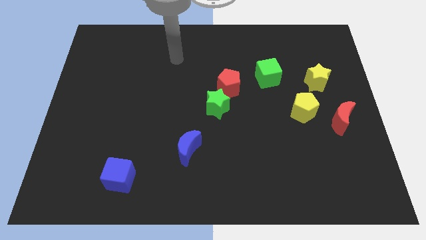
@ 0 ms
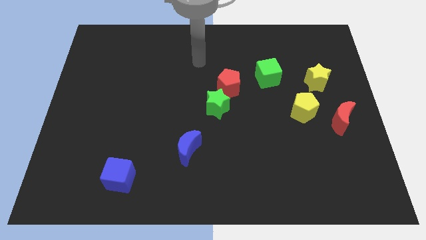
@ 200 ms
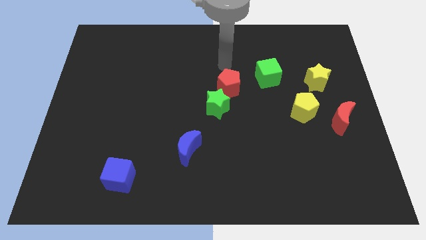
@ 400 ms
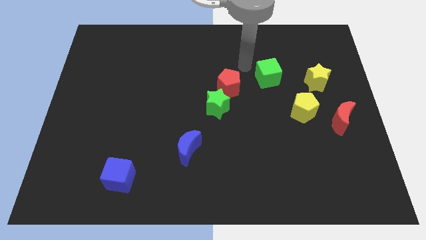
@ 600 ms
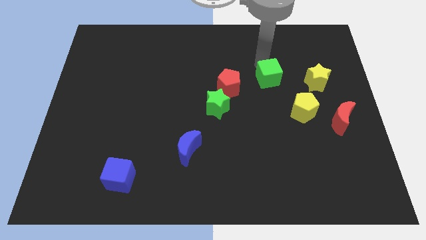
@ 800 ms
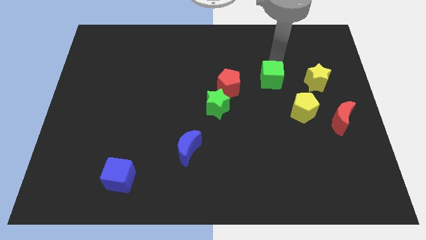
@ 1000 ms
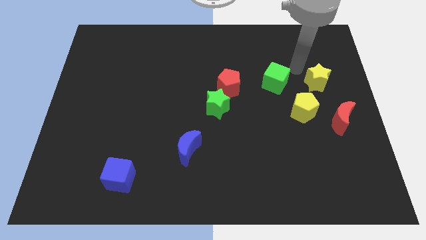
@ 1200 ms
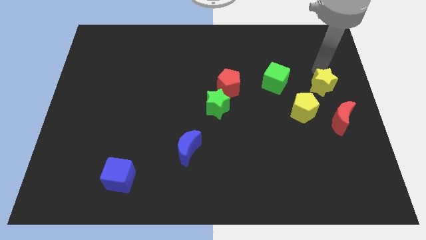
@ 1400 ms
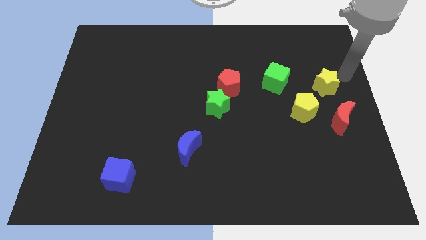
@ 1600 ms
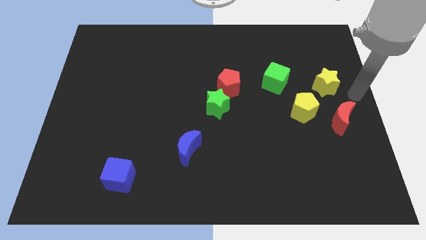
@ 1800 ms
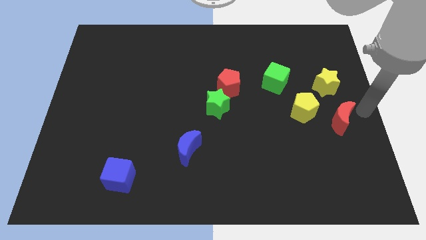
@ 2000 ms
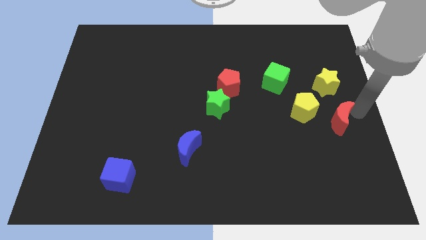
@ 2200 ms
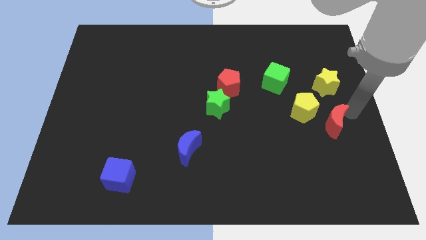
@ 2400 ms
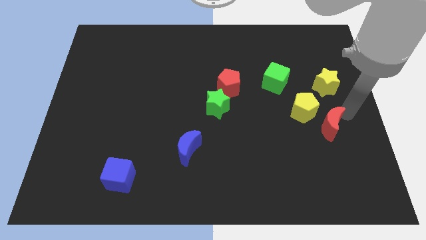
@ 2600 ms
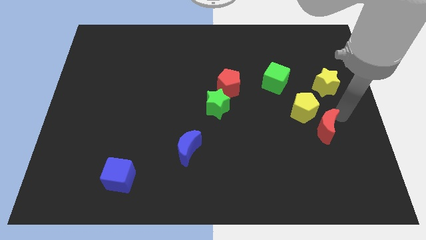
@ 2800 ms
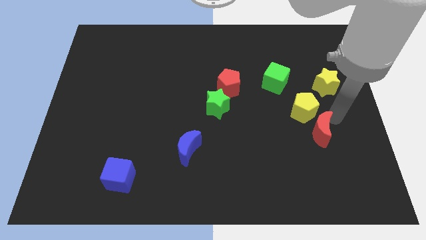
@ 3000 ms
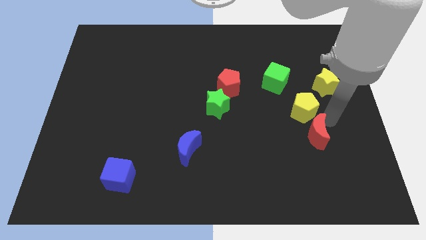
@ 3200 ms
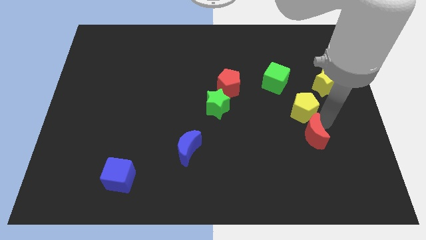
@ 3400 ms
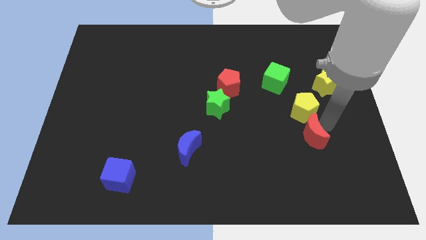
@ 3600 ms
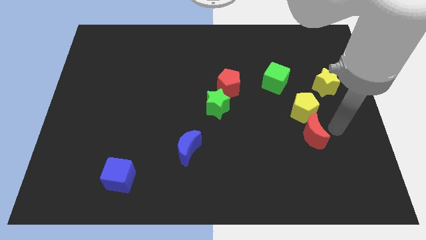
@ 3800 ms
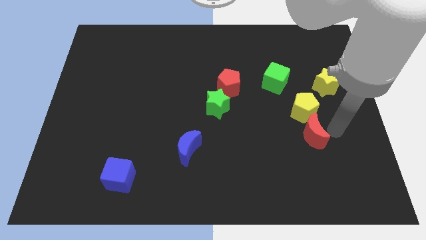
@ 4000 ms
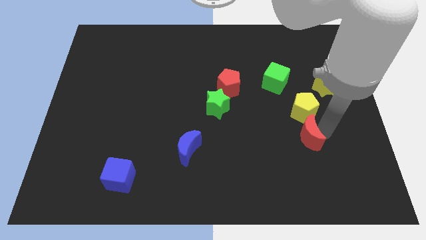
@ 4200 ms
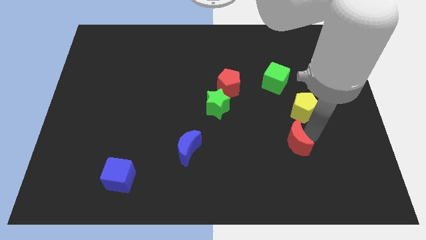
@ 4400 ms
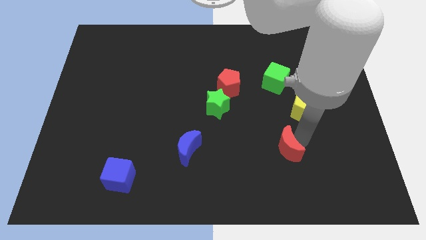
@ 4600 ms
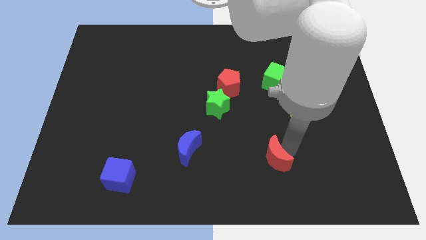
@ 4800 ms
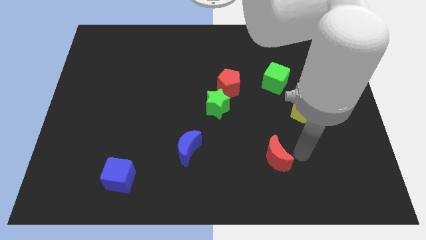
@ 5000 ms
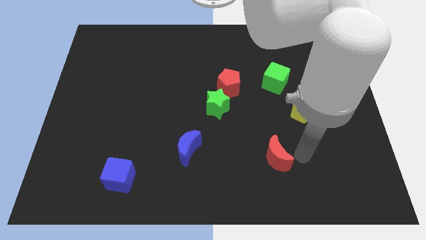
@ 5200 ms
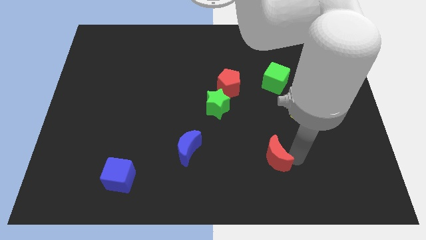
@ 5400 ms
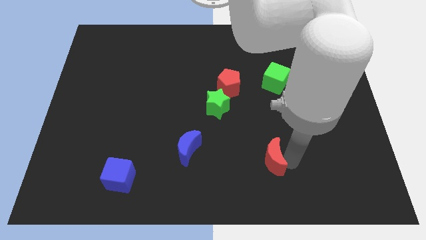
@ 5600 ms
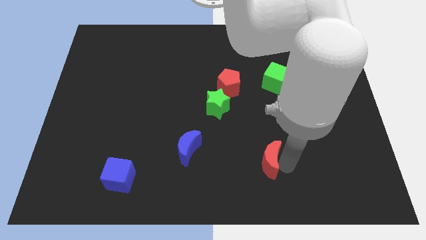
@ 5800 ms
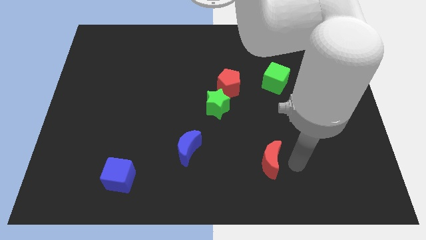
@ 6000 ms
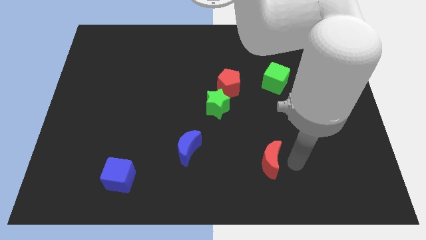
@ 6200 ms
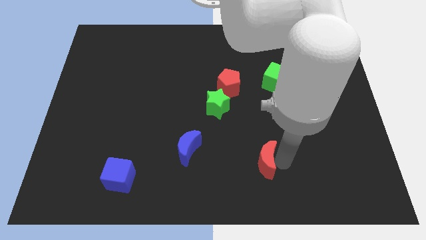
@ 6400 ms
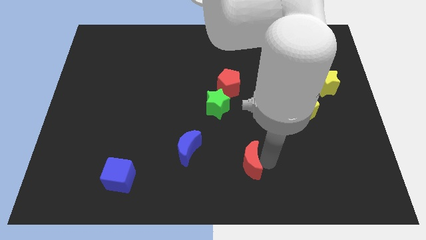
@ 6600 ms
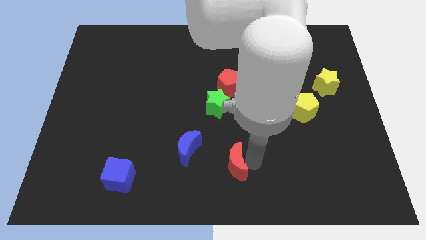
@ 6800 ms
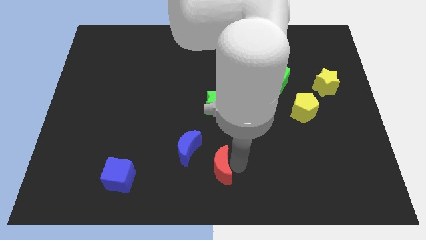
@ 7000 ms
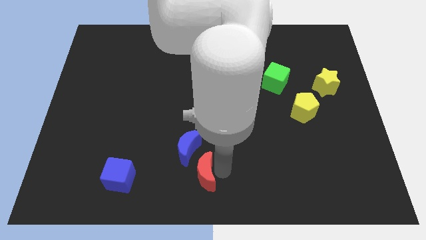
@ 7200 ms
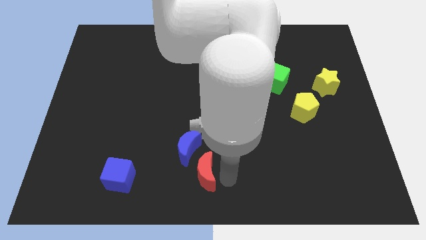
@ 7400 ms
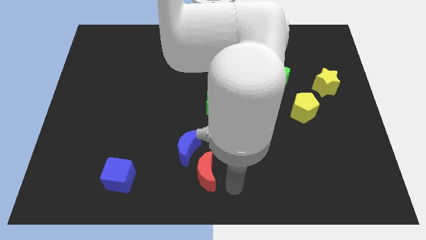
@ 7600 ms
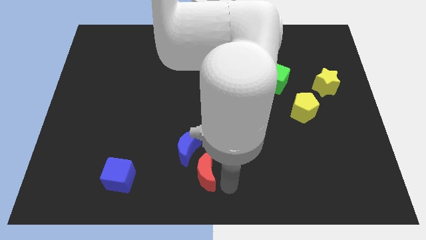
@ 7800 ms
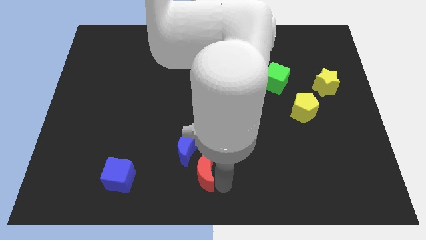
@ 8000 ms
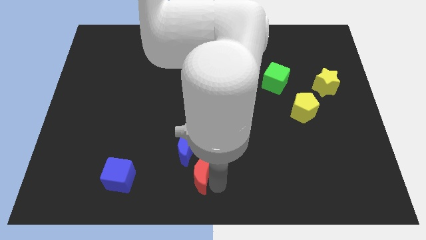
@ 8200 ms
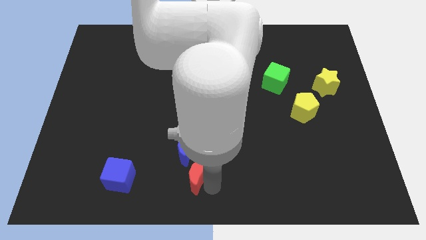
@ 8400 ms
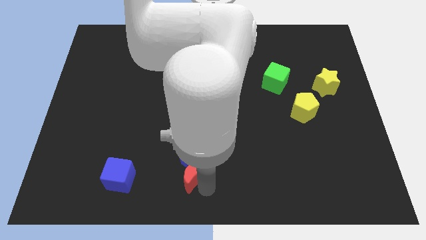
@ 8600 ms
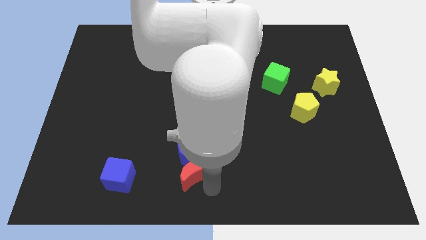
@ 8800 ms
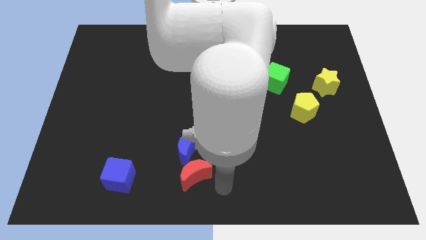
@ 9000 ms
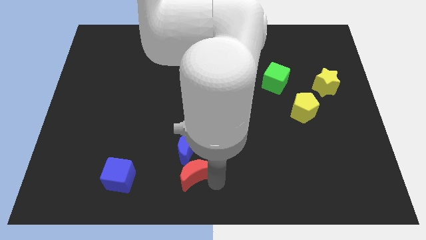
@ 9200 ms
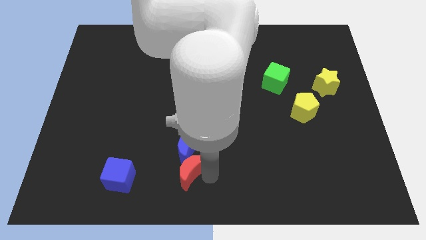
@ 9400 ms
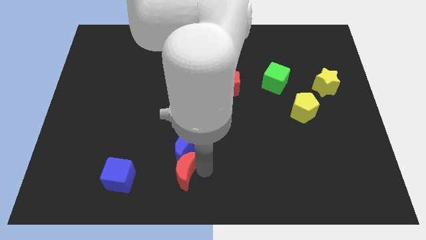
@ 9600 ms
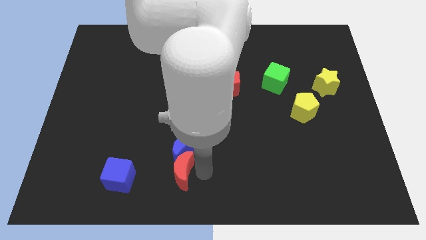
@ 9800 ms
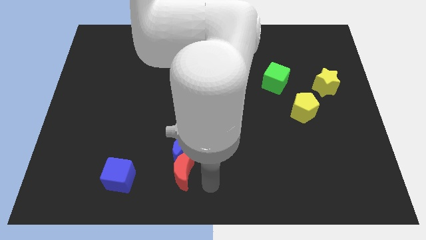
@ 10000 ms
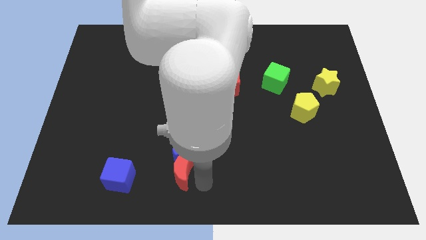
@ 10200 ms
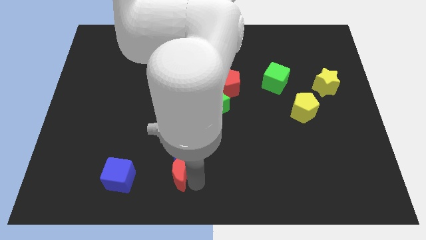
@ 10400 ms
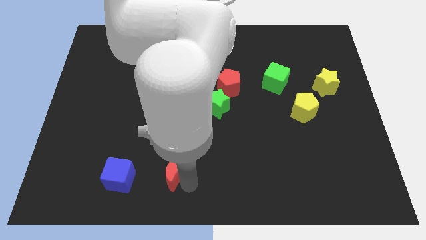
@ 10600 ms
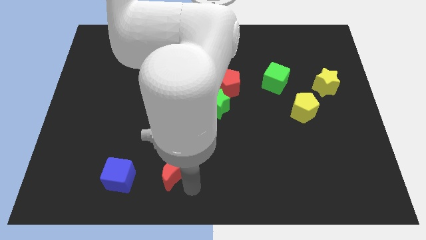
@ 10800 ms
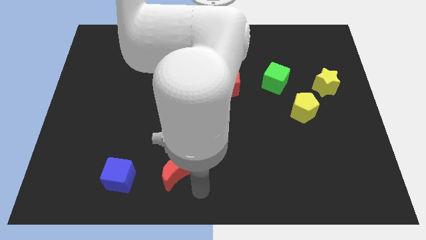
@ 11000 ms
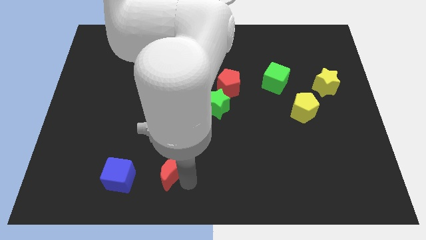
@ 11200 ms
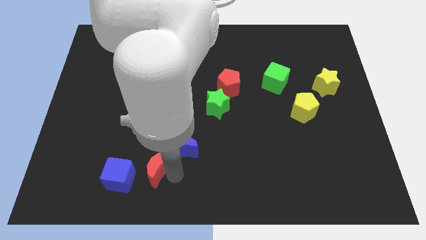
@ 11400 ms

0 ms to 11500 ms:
put the red moon left of the blue moon

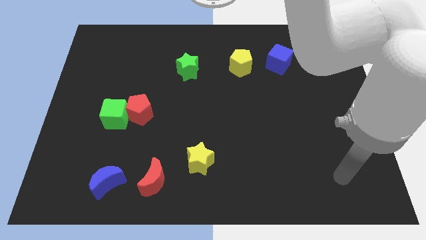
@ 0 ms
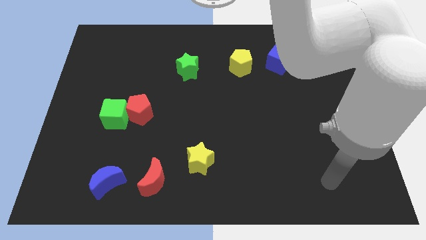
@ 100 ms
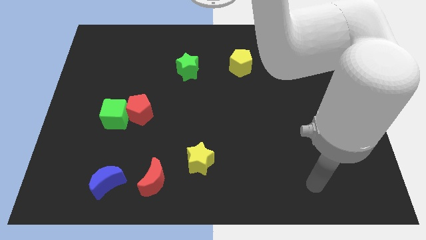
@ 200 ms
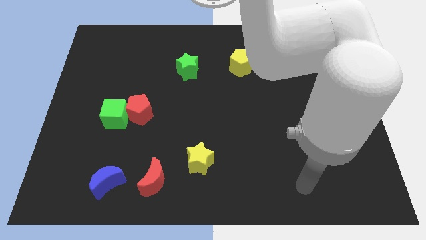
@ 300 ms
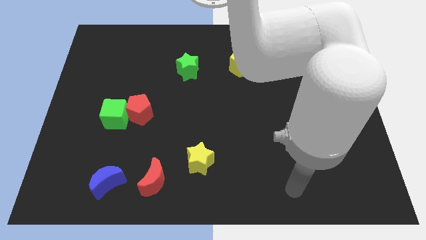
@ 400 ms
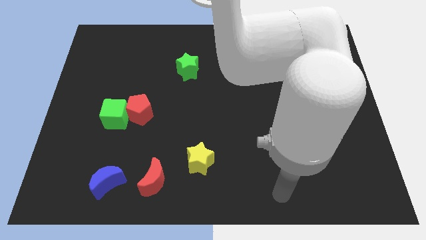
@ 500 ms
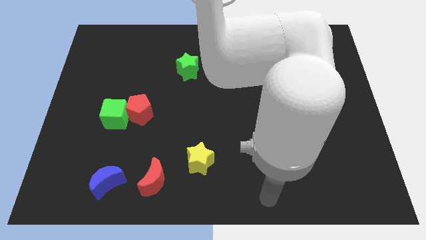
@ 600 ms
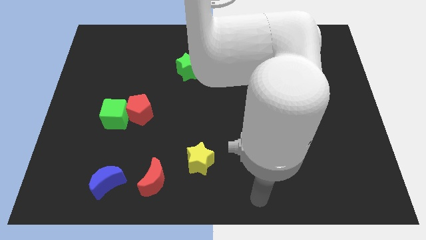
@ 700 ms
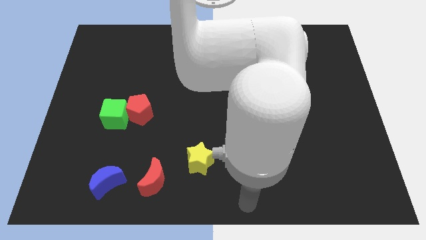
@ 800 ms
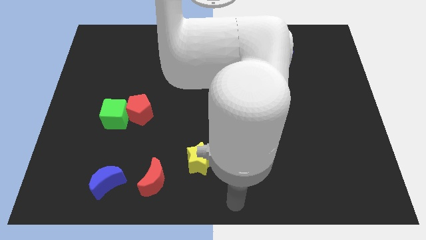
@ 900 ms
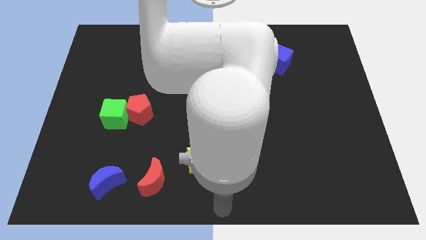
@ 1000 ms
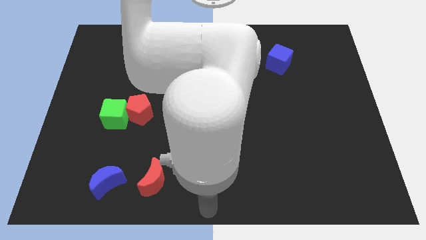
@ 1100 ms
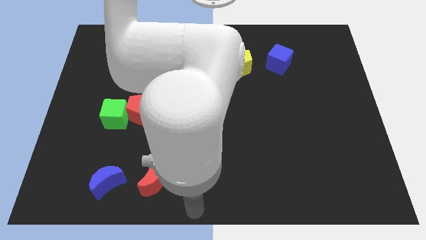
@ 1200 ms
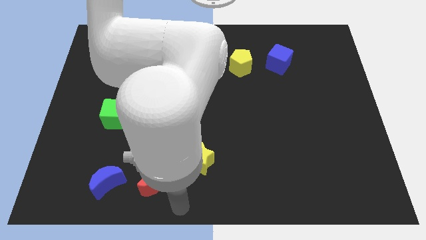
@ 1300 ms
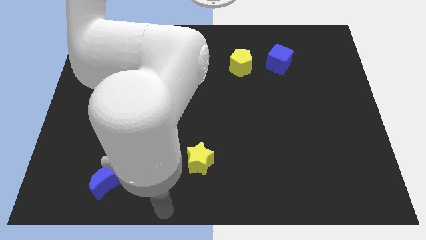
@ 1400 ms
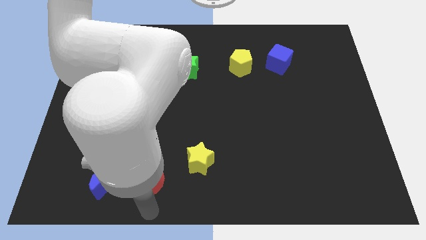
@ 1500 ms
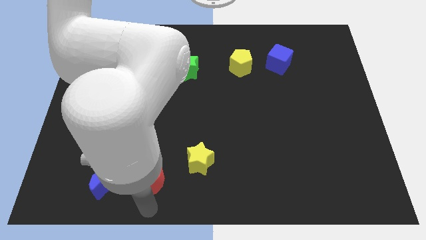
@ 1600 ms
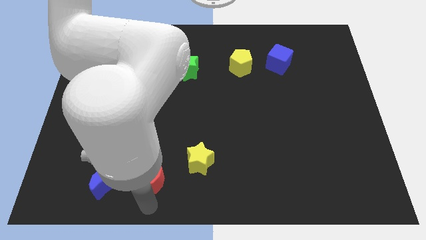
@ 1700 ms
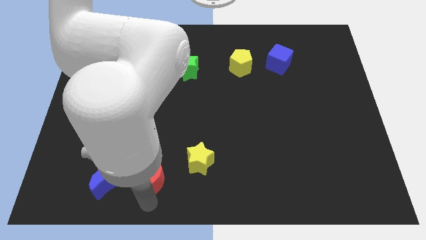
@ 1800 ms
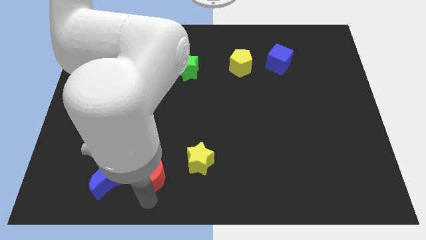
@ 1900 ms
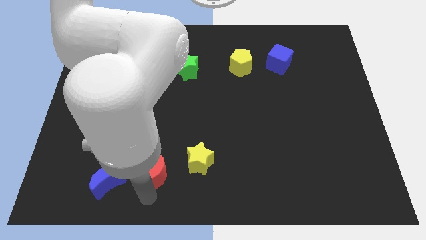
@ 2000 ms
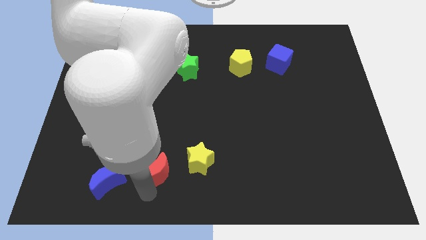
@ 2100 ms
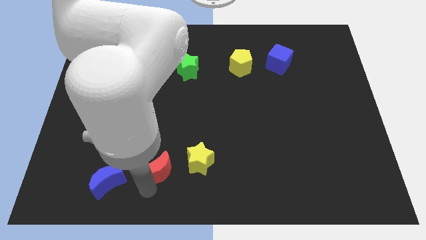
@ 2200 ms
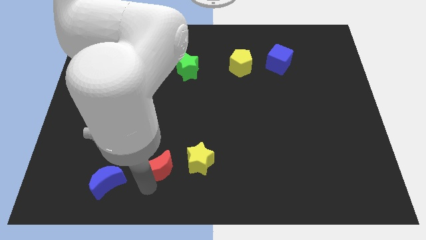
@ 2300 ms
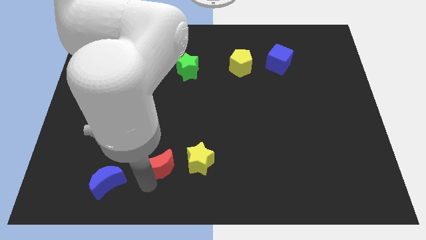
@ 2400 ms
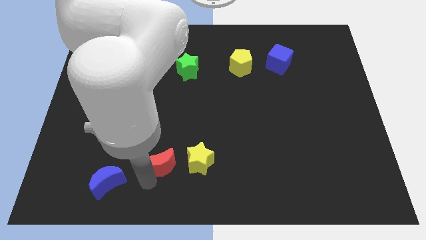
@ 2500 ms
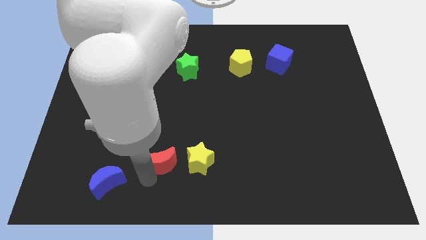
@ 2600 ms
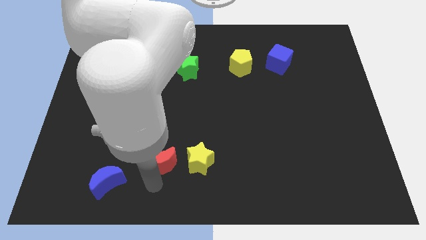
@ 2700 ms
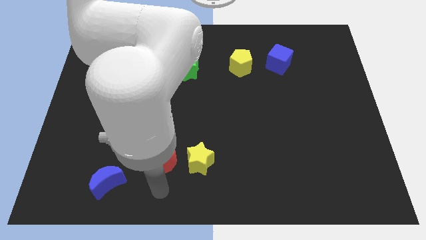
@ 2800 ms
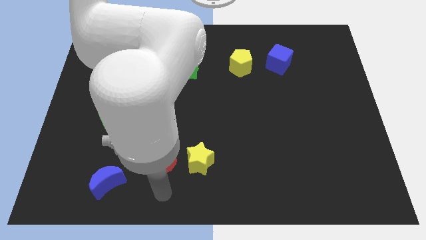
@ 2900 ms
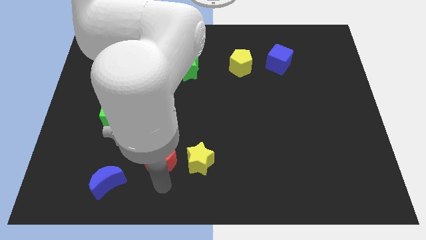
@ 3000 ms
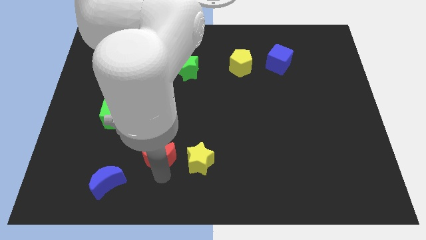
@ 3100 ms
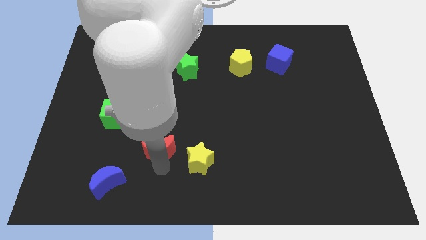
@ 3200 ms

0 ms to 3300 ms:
move the red moon to the bottom right side of the red pentagon
